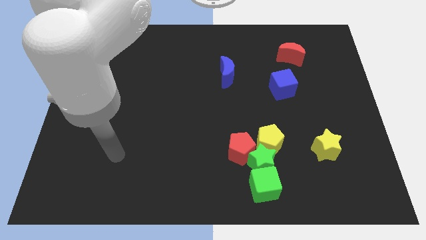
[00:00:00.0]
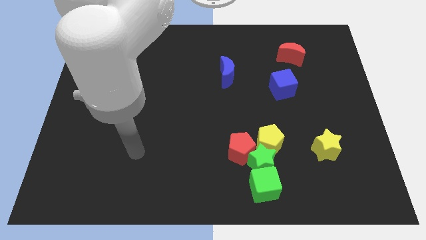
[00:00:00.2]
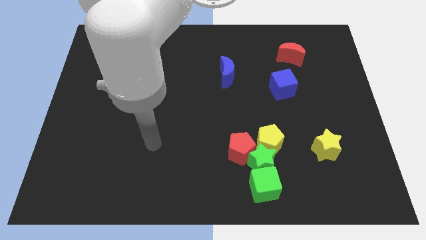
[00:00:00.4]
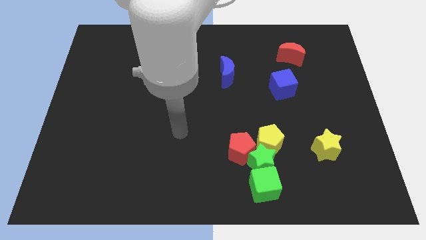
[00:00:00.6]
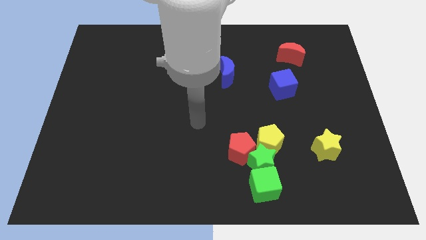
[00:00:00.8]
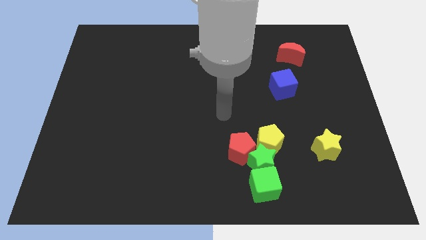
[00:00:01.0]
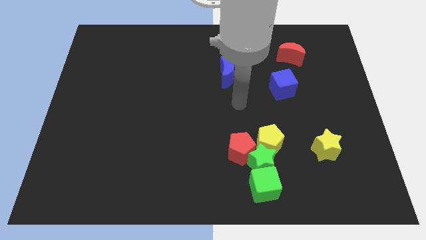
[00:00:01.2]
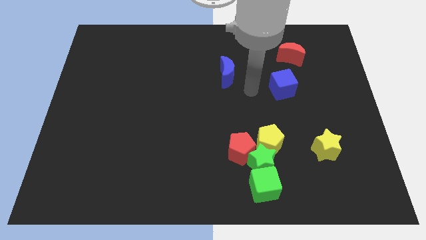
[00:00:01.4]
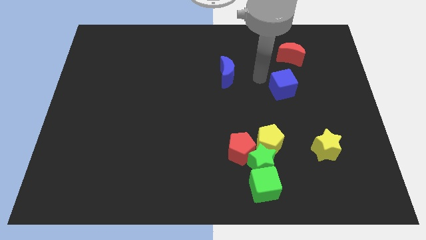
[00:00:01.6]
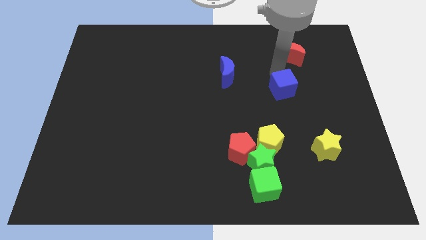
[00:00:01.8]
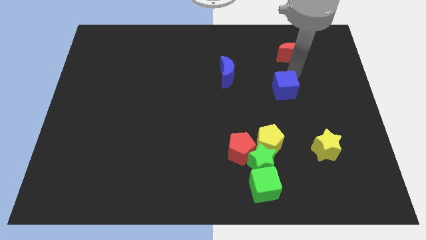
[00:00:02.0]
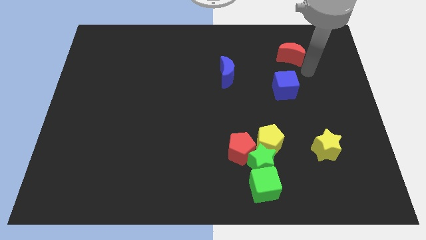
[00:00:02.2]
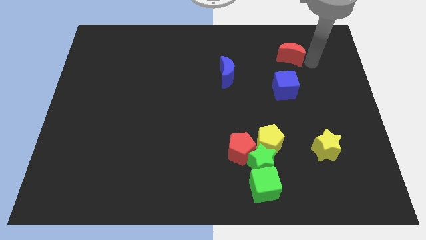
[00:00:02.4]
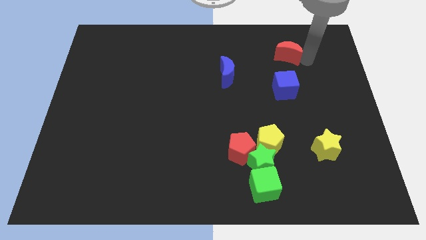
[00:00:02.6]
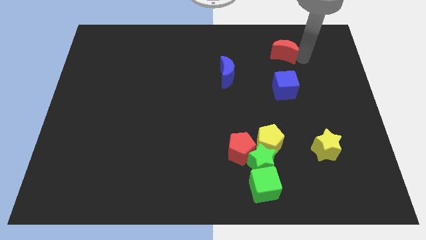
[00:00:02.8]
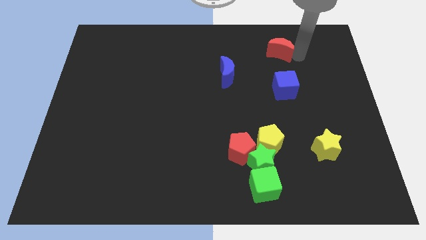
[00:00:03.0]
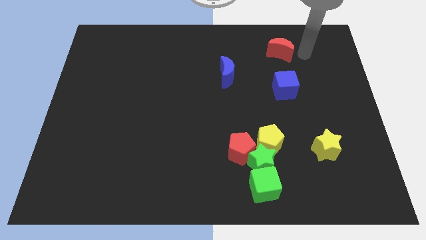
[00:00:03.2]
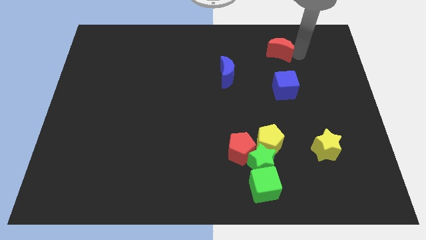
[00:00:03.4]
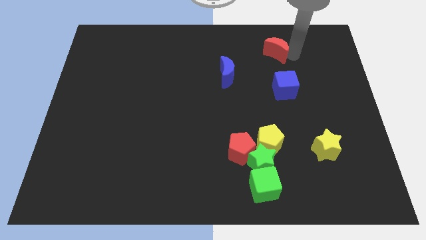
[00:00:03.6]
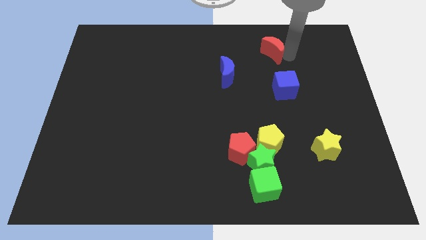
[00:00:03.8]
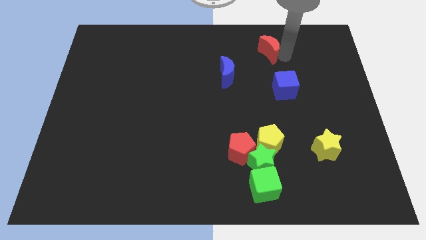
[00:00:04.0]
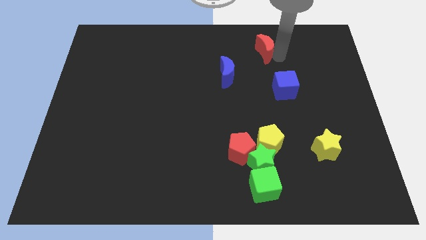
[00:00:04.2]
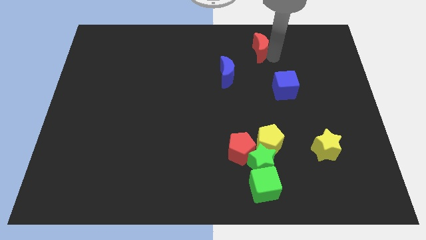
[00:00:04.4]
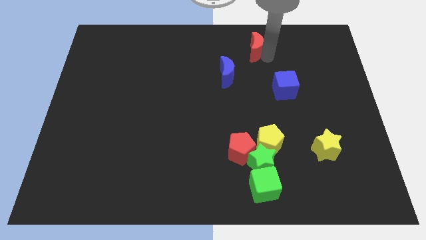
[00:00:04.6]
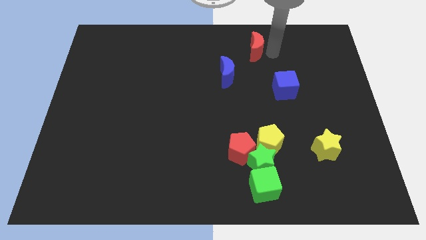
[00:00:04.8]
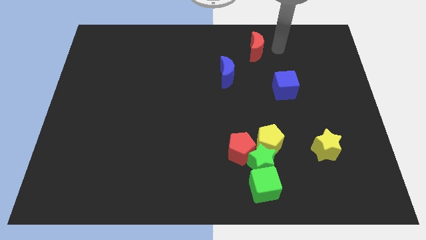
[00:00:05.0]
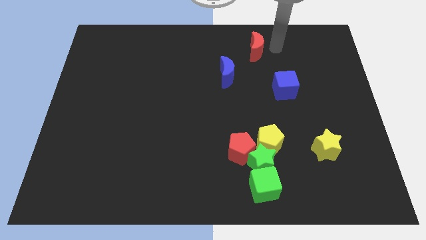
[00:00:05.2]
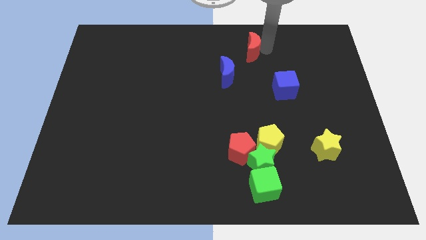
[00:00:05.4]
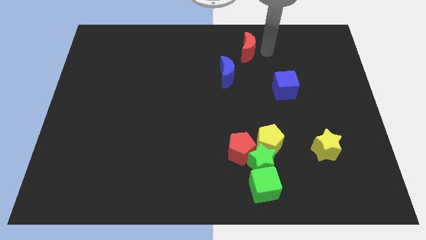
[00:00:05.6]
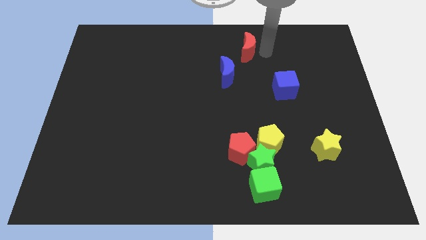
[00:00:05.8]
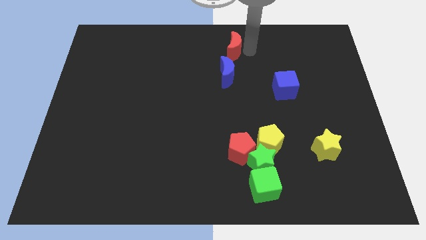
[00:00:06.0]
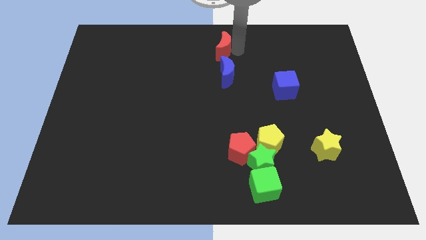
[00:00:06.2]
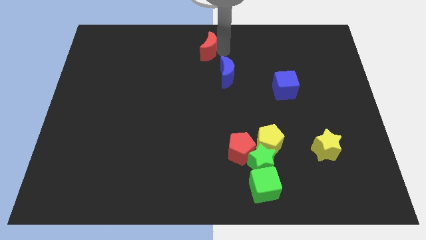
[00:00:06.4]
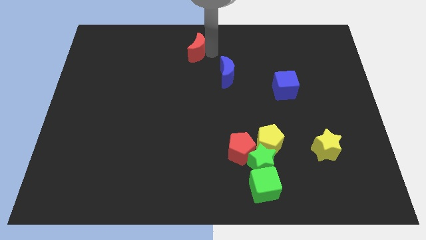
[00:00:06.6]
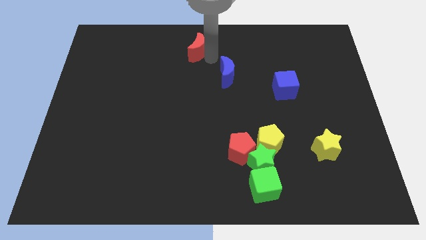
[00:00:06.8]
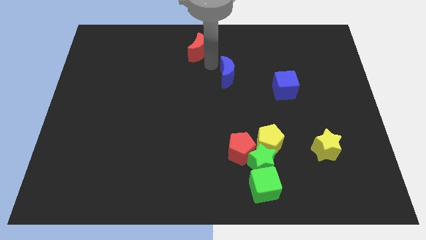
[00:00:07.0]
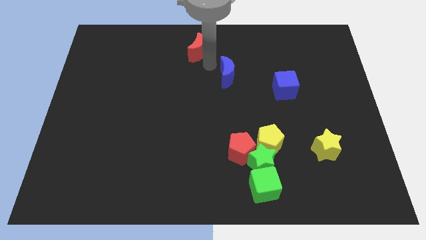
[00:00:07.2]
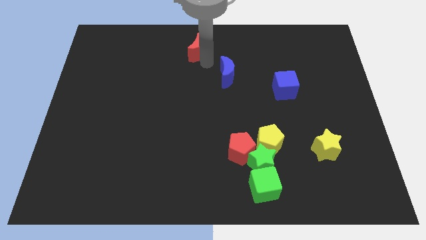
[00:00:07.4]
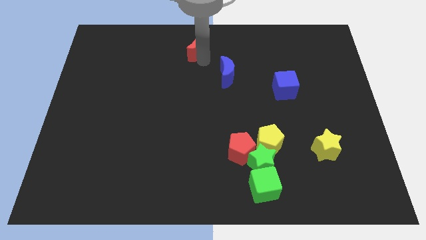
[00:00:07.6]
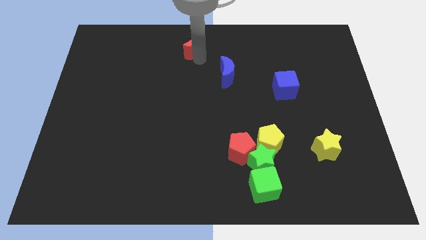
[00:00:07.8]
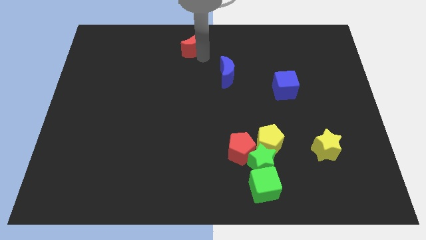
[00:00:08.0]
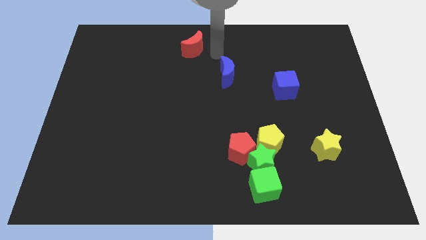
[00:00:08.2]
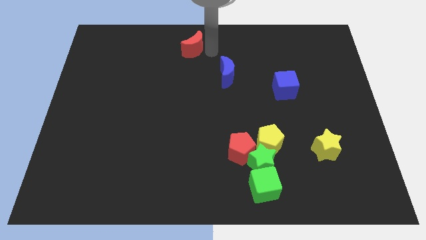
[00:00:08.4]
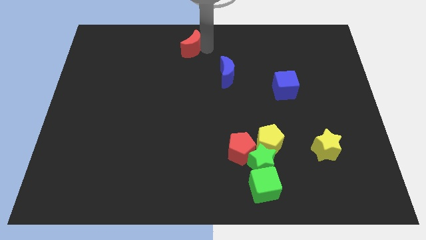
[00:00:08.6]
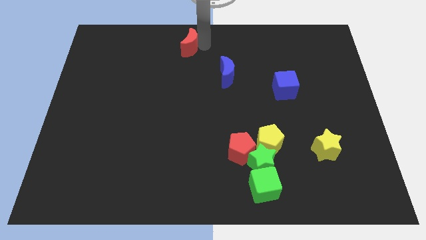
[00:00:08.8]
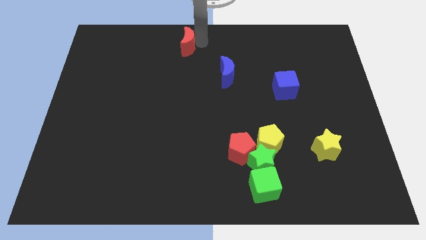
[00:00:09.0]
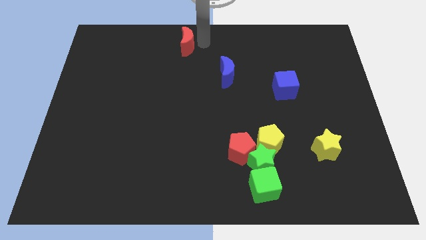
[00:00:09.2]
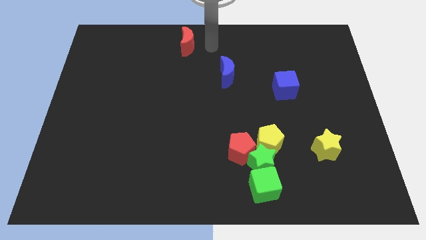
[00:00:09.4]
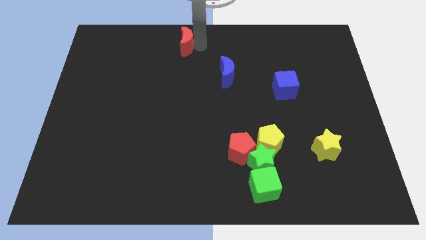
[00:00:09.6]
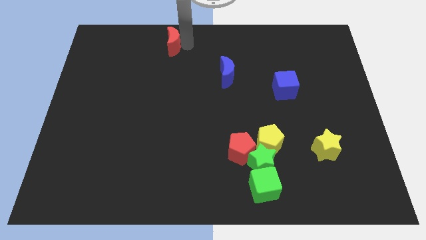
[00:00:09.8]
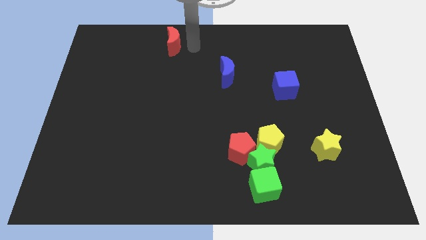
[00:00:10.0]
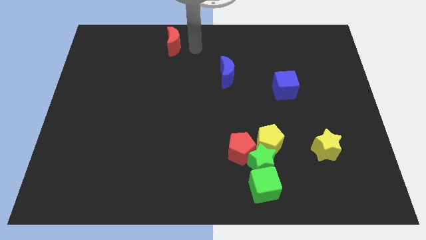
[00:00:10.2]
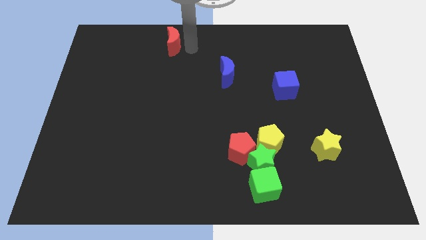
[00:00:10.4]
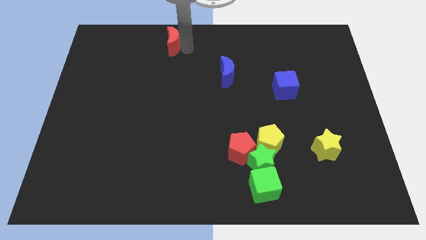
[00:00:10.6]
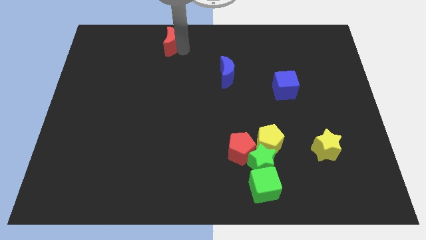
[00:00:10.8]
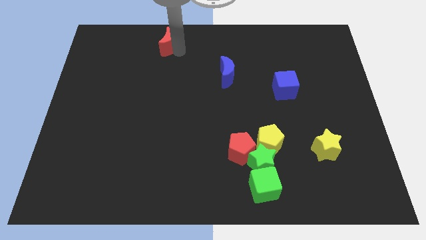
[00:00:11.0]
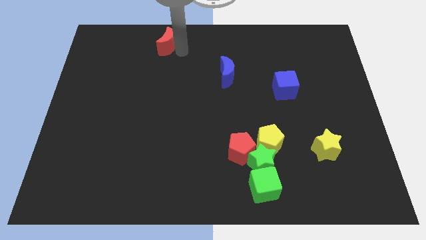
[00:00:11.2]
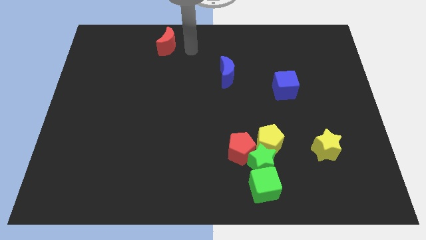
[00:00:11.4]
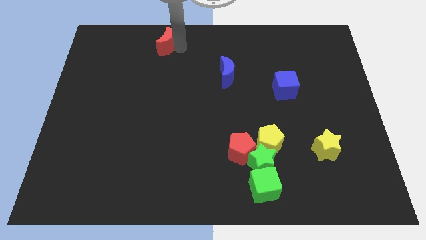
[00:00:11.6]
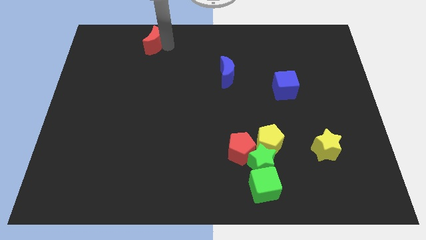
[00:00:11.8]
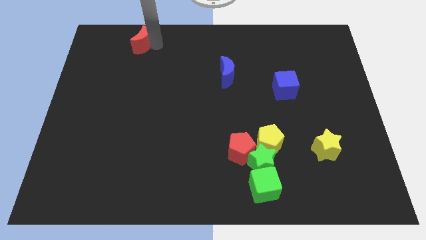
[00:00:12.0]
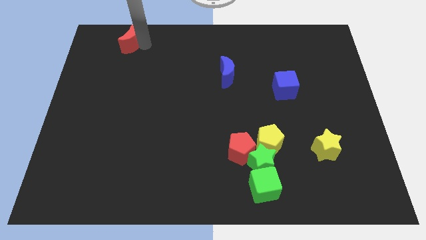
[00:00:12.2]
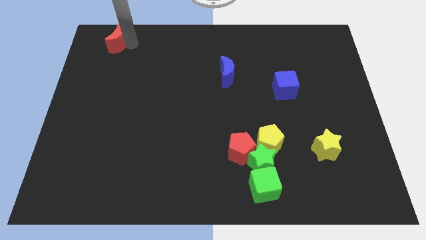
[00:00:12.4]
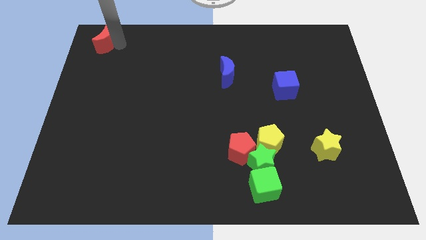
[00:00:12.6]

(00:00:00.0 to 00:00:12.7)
move the red moon to the top left of the board
